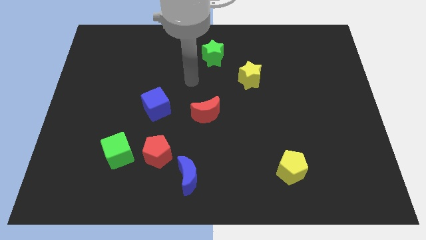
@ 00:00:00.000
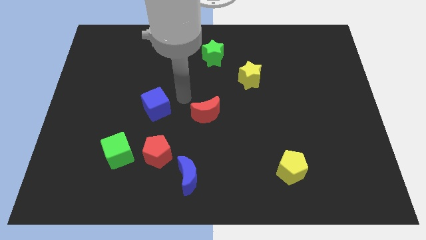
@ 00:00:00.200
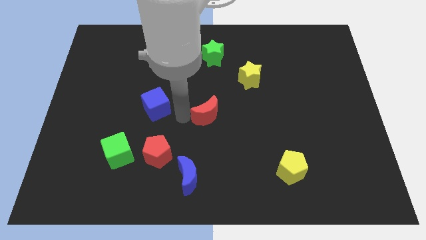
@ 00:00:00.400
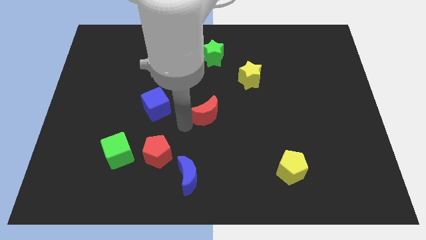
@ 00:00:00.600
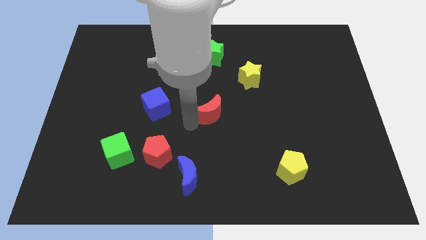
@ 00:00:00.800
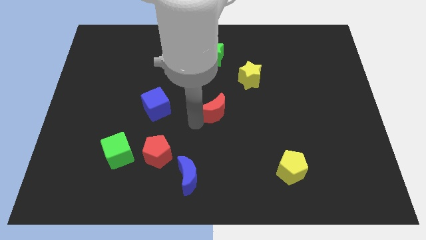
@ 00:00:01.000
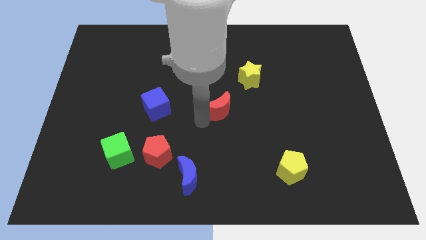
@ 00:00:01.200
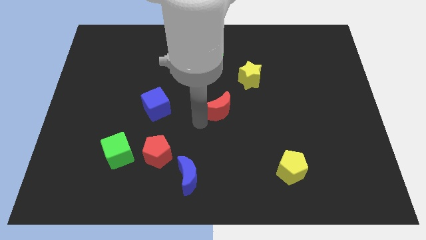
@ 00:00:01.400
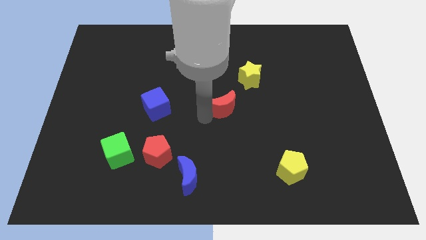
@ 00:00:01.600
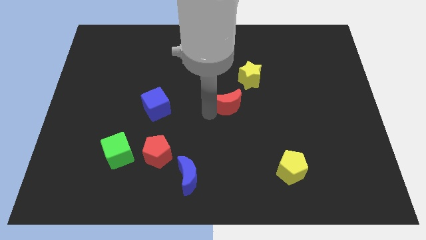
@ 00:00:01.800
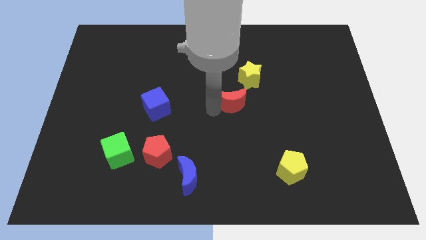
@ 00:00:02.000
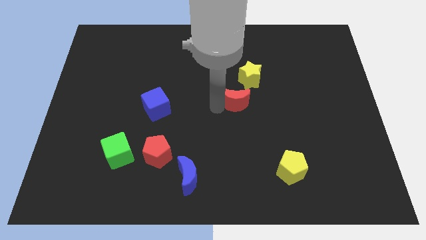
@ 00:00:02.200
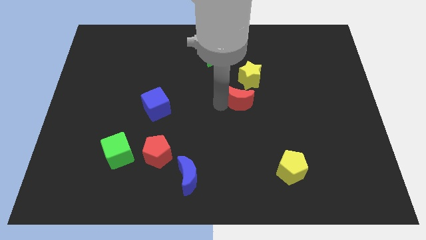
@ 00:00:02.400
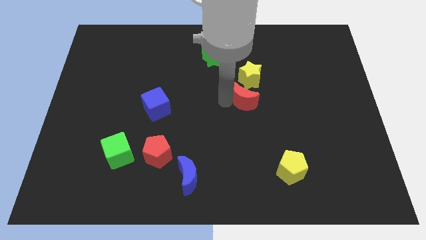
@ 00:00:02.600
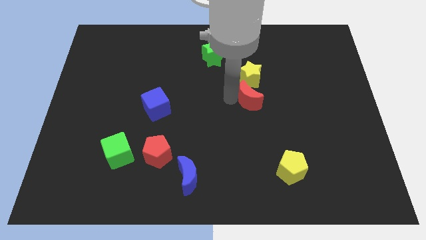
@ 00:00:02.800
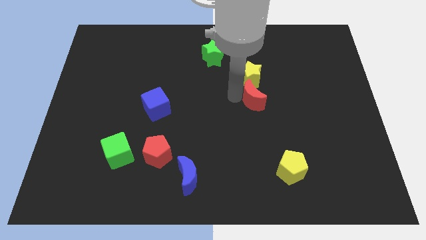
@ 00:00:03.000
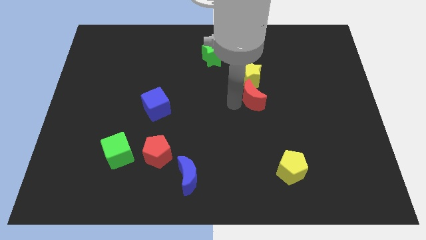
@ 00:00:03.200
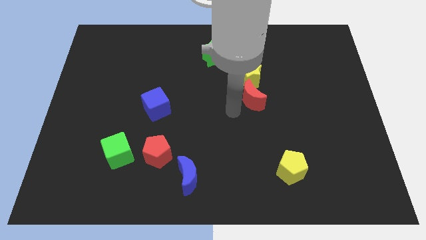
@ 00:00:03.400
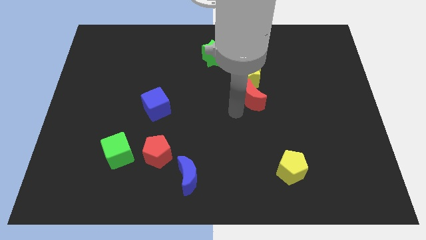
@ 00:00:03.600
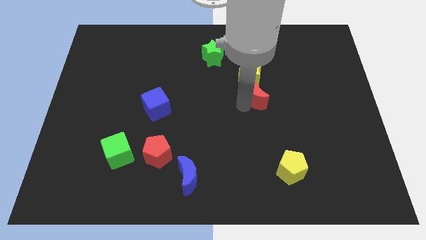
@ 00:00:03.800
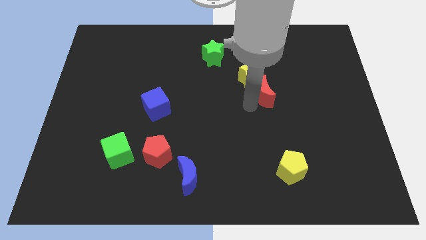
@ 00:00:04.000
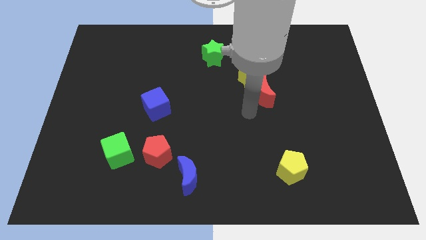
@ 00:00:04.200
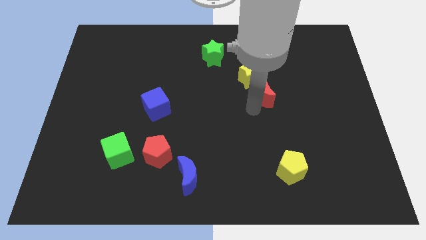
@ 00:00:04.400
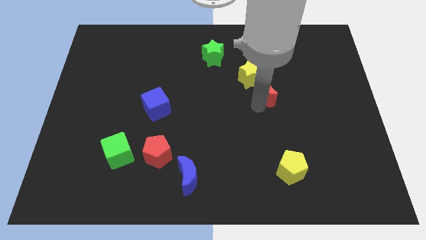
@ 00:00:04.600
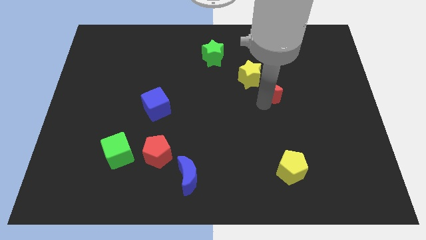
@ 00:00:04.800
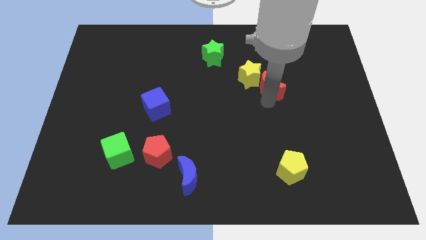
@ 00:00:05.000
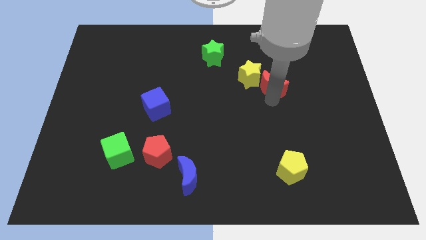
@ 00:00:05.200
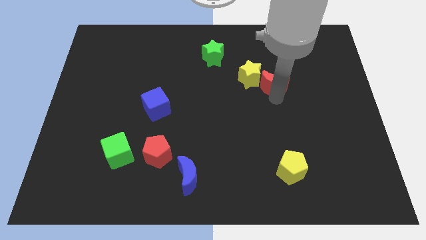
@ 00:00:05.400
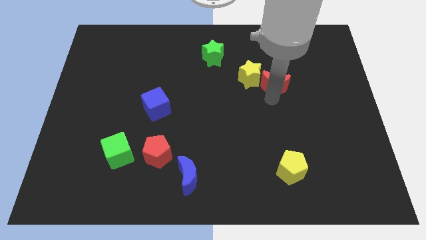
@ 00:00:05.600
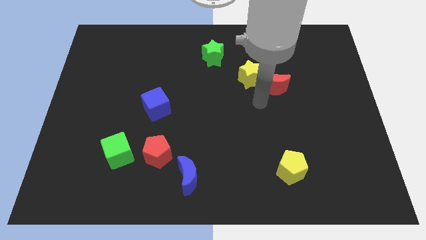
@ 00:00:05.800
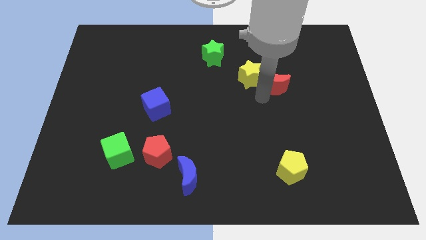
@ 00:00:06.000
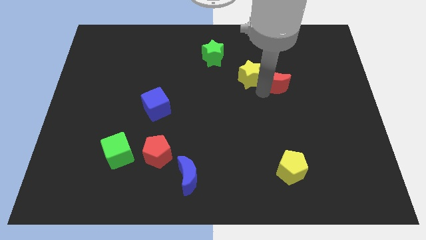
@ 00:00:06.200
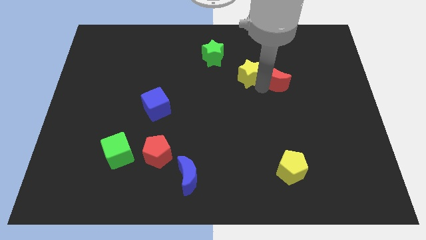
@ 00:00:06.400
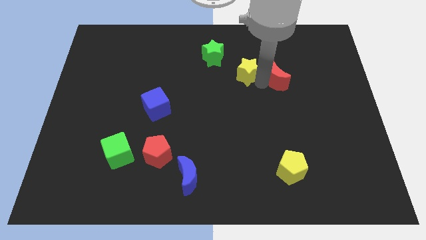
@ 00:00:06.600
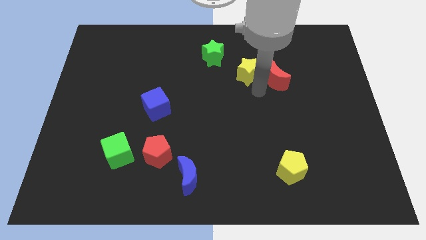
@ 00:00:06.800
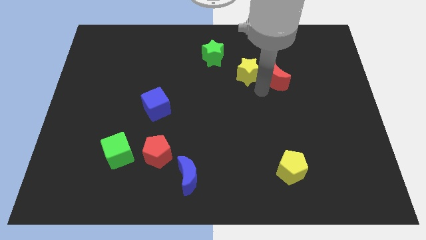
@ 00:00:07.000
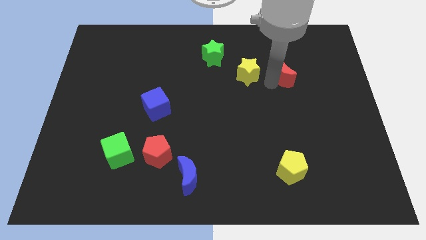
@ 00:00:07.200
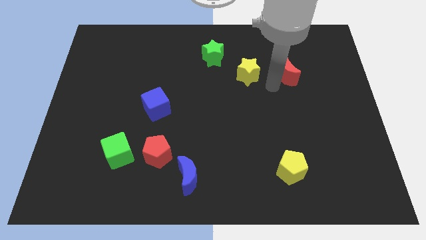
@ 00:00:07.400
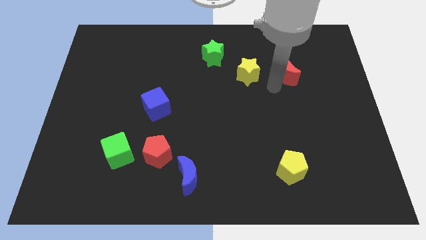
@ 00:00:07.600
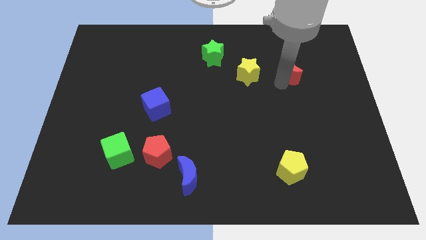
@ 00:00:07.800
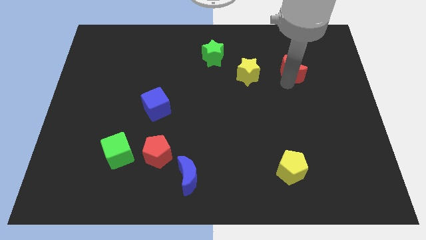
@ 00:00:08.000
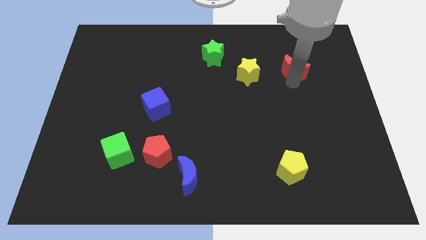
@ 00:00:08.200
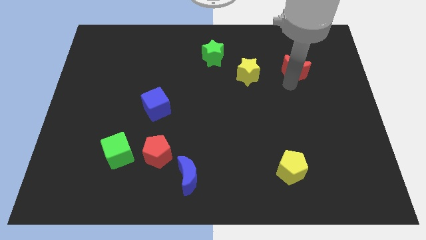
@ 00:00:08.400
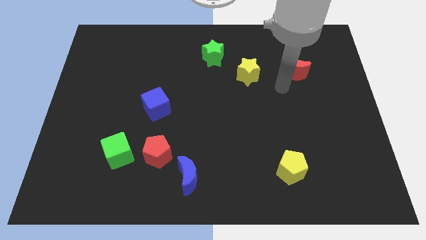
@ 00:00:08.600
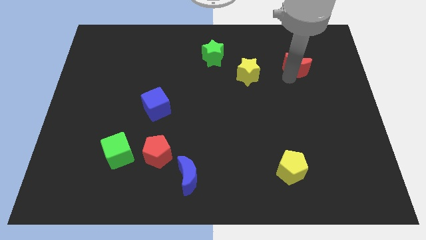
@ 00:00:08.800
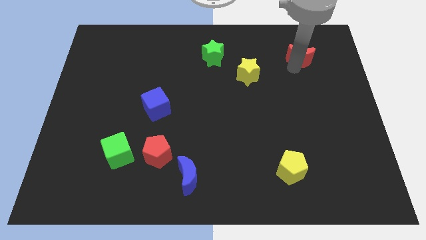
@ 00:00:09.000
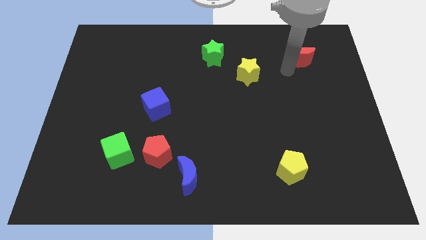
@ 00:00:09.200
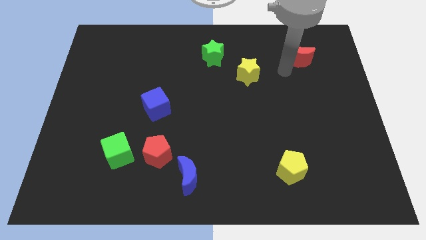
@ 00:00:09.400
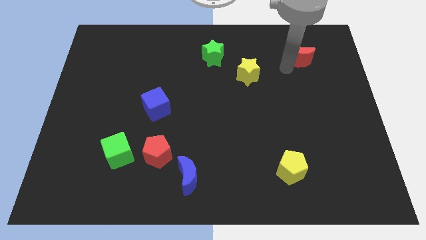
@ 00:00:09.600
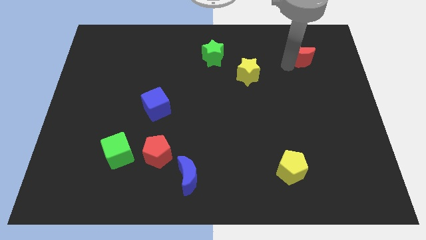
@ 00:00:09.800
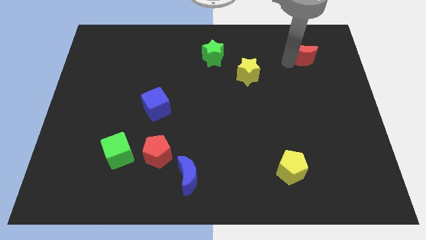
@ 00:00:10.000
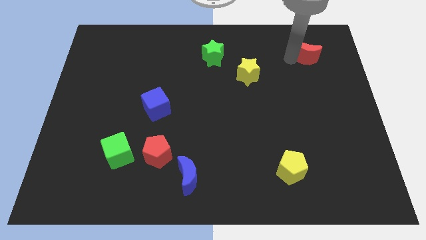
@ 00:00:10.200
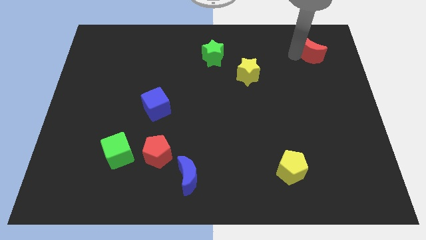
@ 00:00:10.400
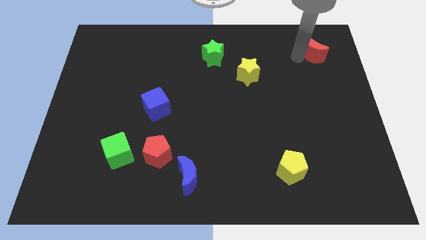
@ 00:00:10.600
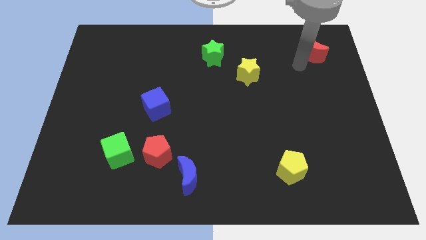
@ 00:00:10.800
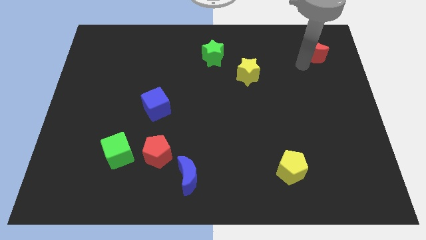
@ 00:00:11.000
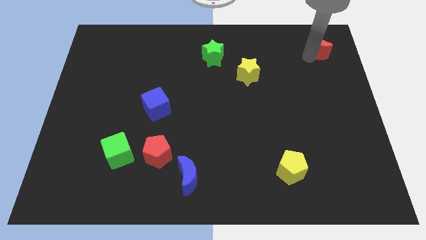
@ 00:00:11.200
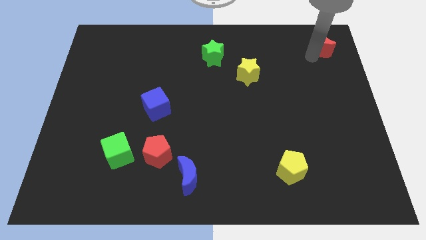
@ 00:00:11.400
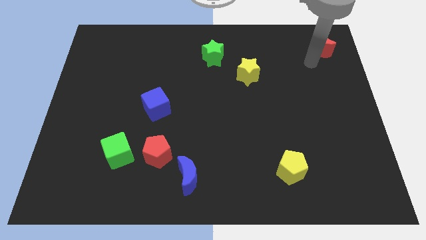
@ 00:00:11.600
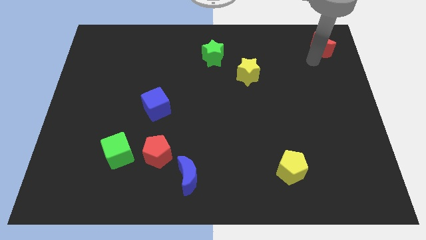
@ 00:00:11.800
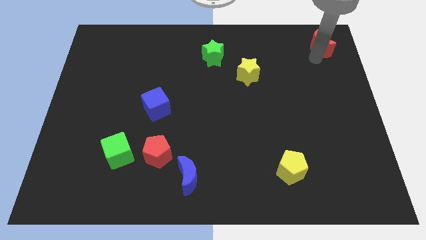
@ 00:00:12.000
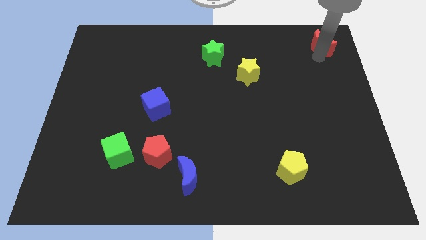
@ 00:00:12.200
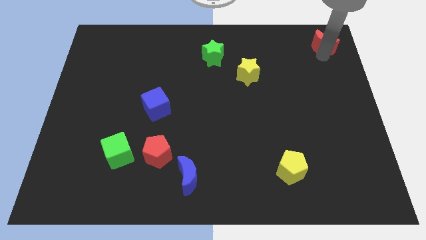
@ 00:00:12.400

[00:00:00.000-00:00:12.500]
move the red moon to the top right

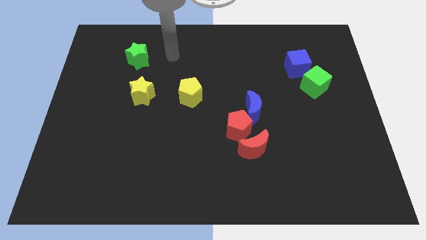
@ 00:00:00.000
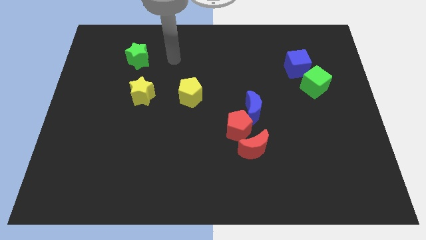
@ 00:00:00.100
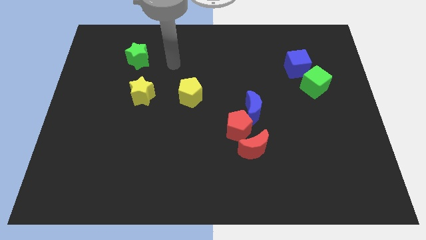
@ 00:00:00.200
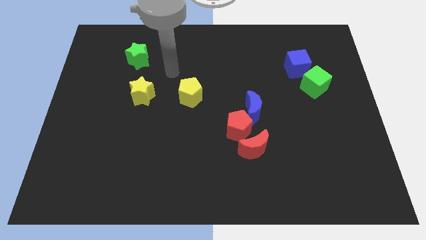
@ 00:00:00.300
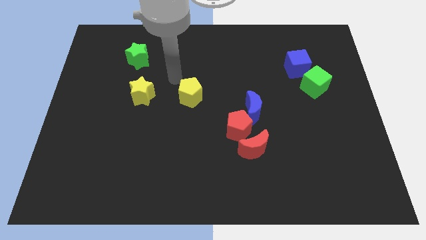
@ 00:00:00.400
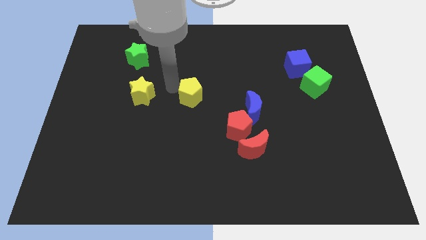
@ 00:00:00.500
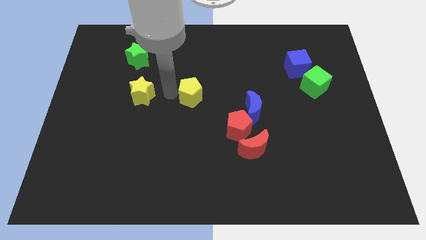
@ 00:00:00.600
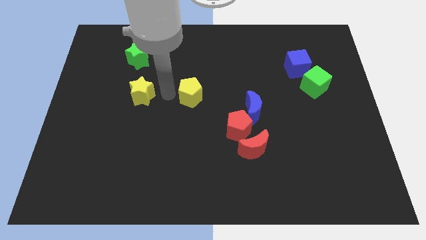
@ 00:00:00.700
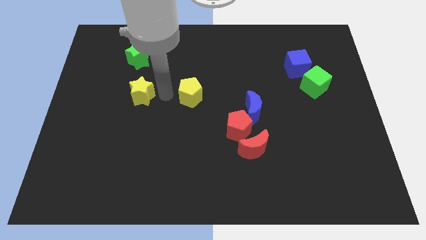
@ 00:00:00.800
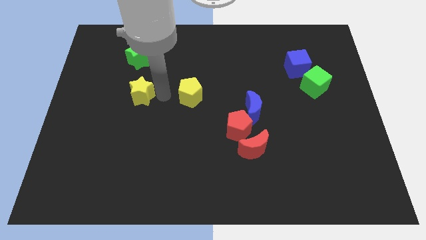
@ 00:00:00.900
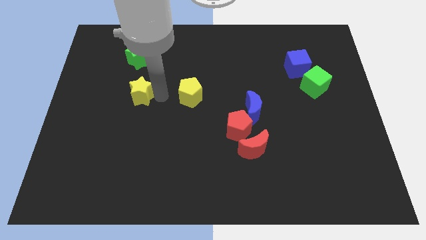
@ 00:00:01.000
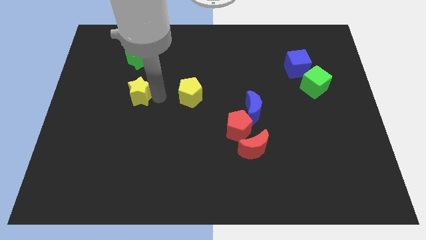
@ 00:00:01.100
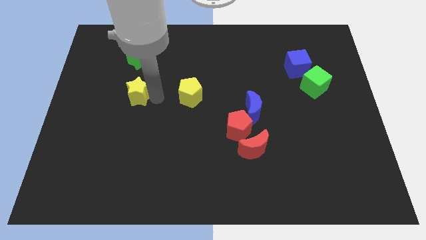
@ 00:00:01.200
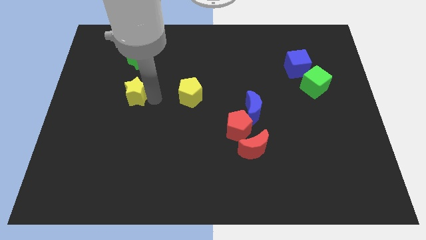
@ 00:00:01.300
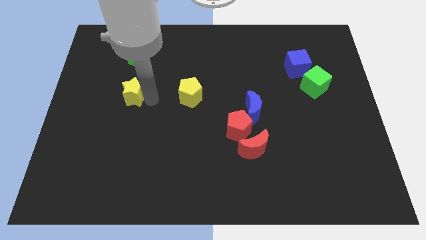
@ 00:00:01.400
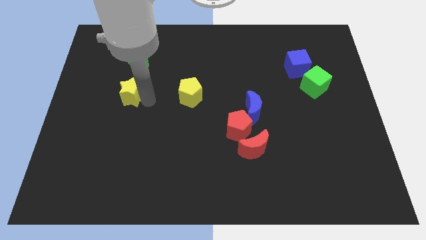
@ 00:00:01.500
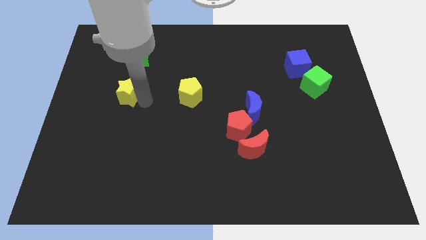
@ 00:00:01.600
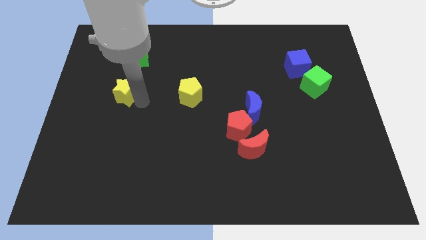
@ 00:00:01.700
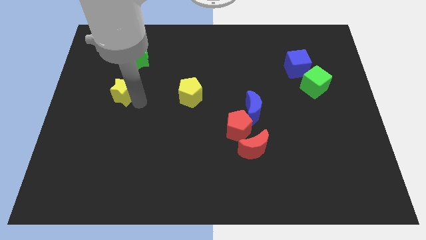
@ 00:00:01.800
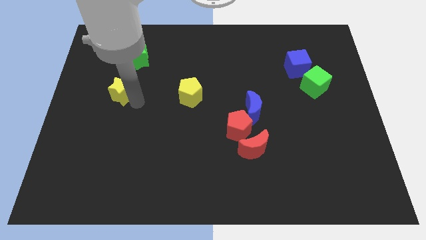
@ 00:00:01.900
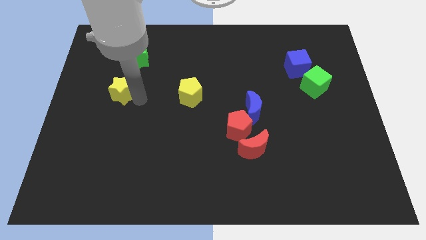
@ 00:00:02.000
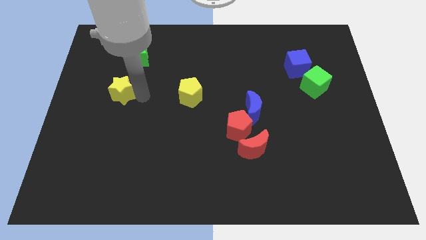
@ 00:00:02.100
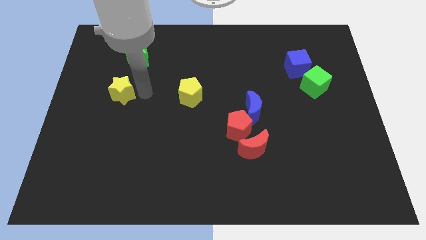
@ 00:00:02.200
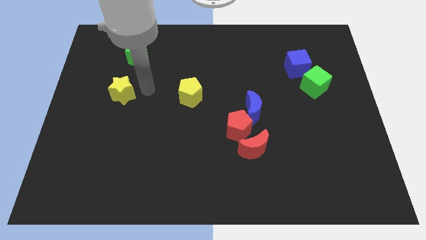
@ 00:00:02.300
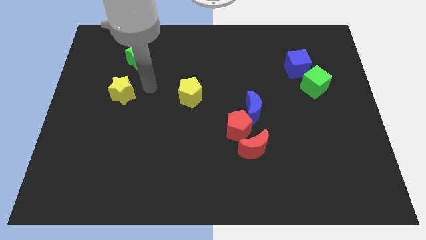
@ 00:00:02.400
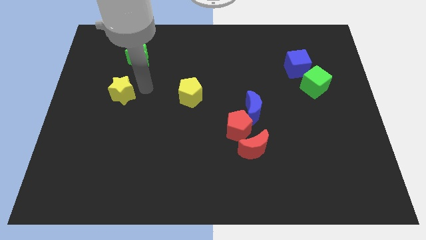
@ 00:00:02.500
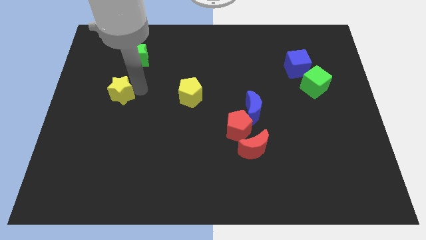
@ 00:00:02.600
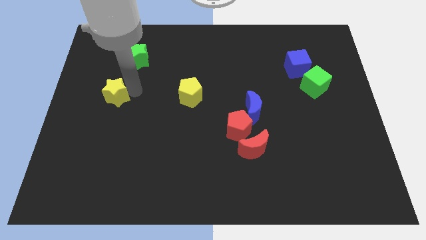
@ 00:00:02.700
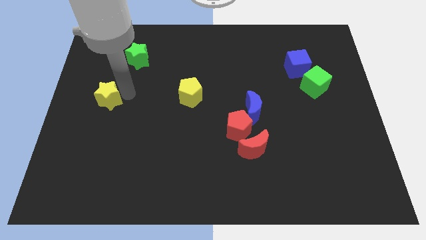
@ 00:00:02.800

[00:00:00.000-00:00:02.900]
move the yellow star to the left side
